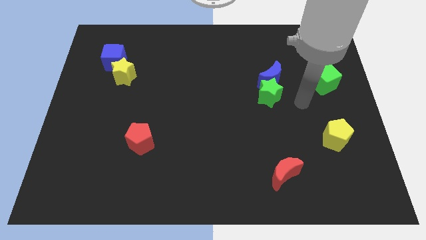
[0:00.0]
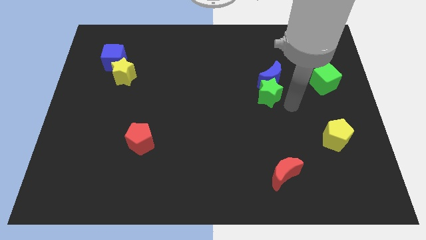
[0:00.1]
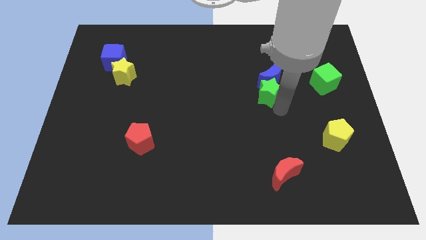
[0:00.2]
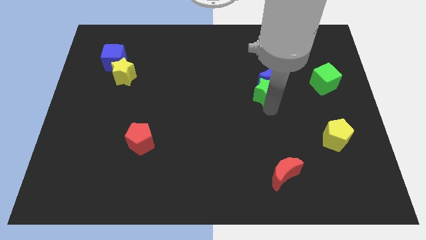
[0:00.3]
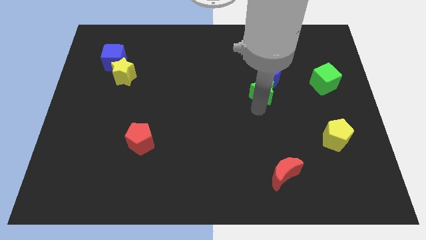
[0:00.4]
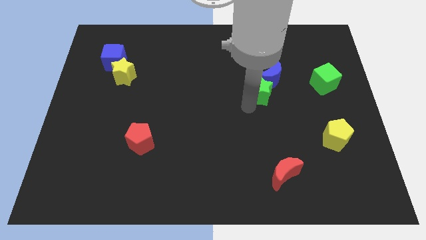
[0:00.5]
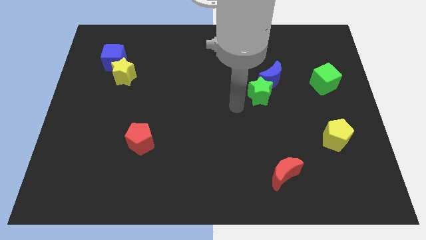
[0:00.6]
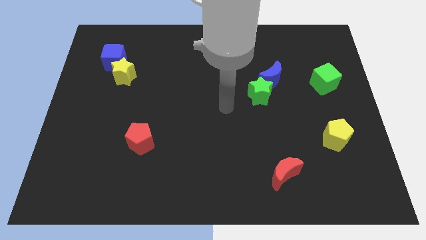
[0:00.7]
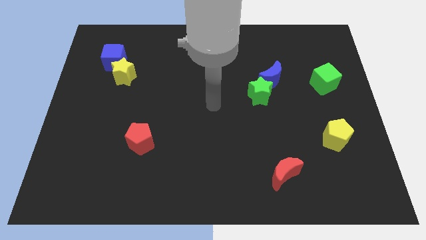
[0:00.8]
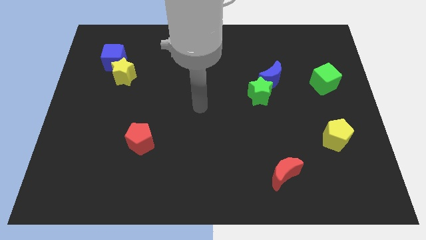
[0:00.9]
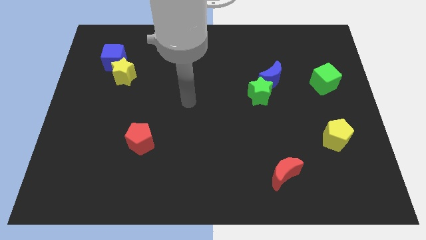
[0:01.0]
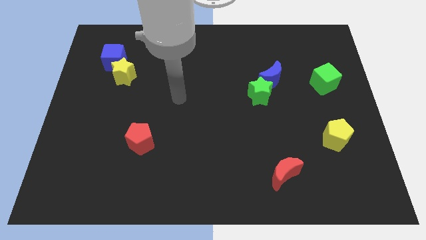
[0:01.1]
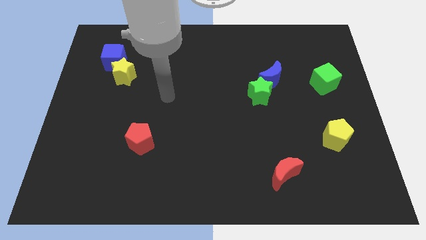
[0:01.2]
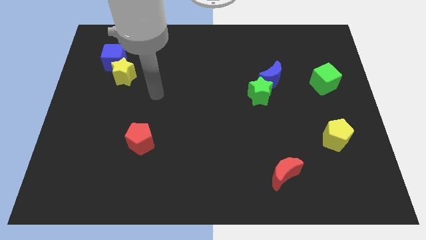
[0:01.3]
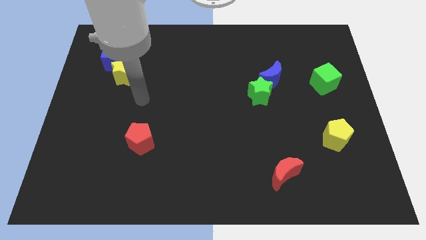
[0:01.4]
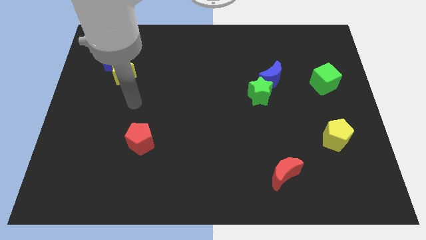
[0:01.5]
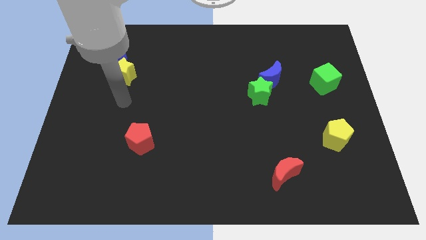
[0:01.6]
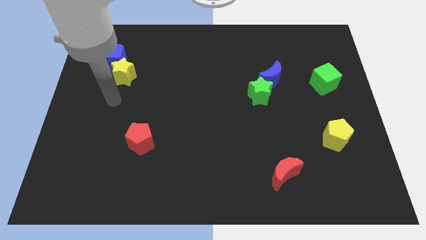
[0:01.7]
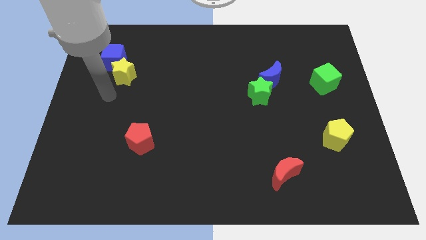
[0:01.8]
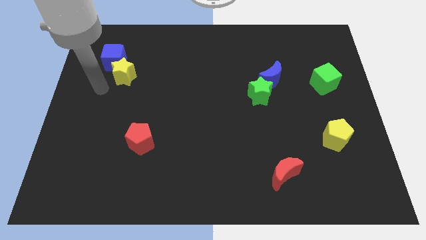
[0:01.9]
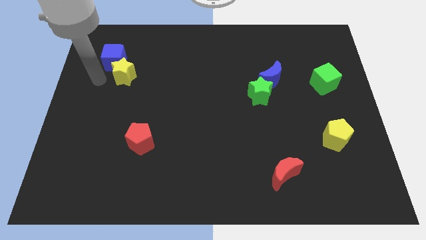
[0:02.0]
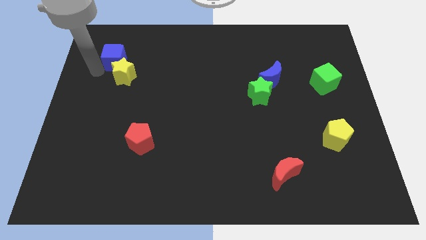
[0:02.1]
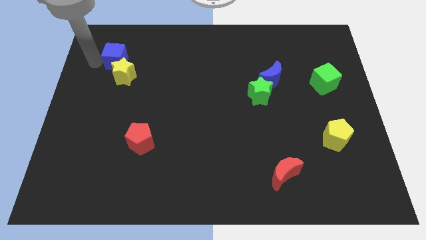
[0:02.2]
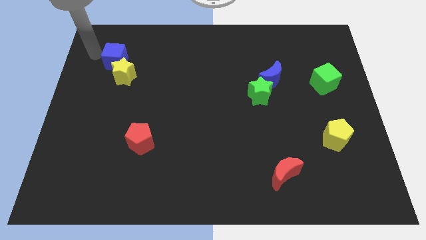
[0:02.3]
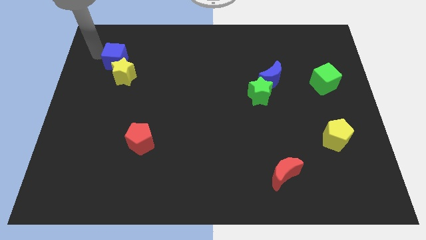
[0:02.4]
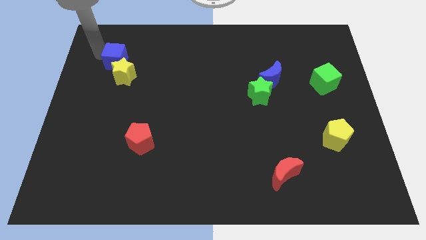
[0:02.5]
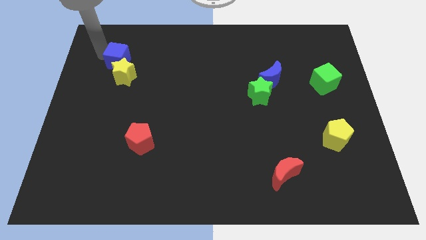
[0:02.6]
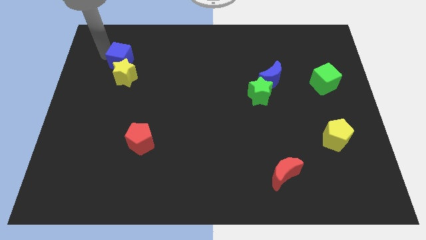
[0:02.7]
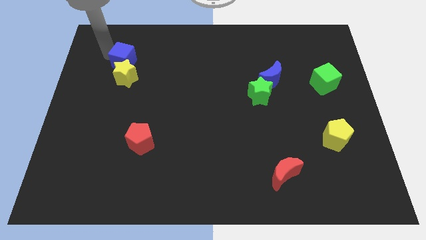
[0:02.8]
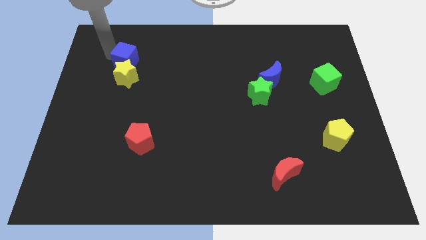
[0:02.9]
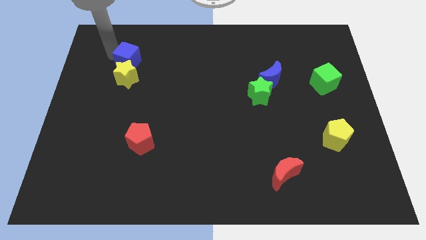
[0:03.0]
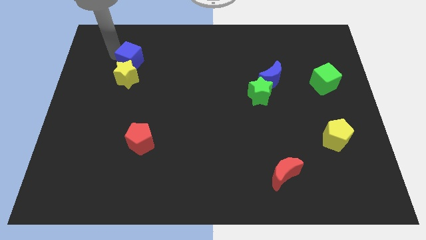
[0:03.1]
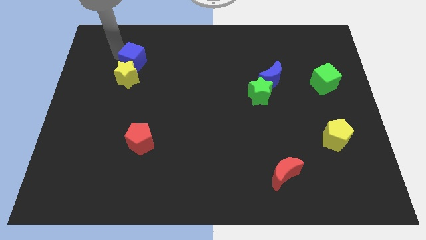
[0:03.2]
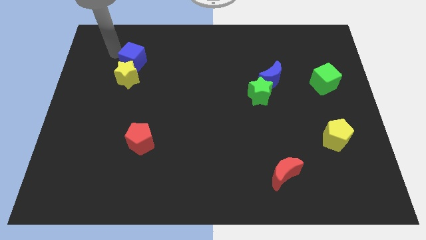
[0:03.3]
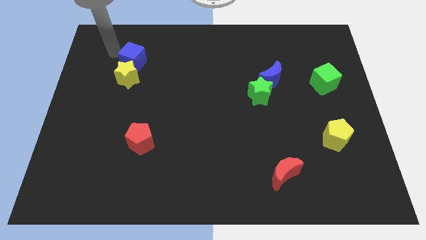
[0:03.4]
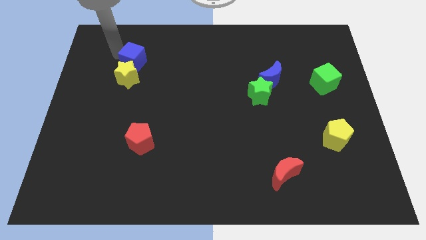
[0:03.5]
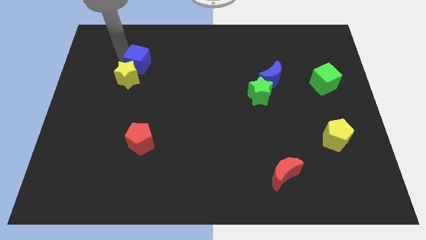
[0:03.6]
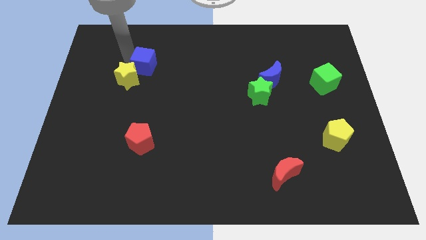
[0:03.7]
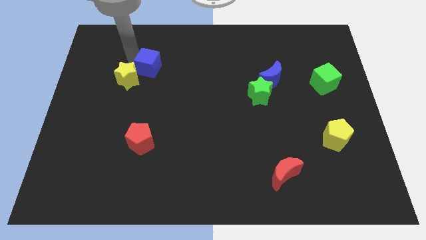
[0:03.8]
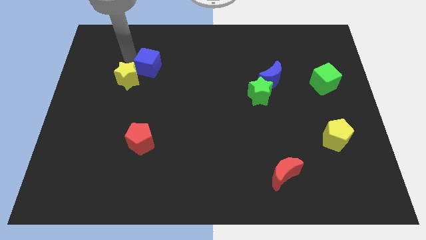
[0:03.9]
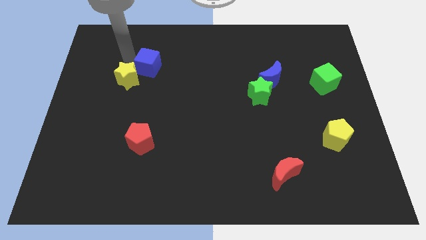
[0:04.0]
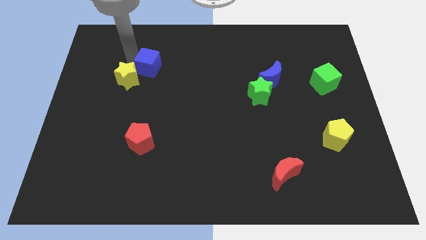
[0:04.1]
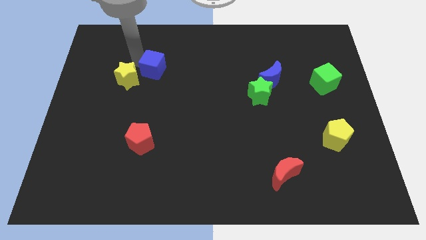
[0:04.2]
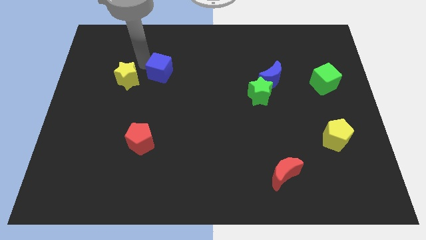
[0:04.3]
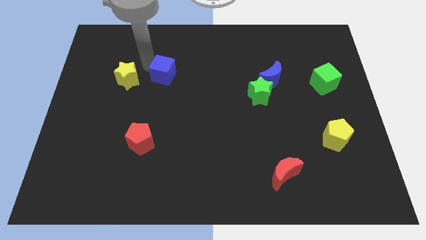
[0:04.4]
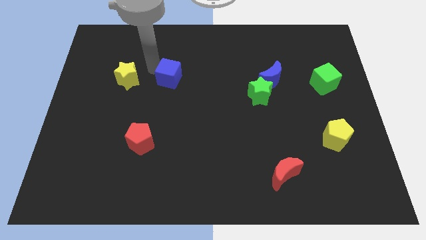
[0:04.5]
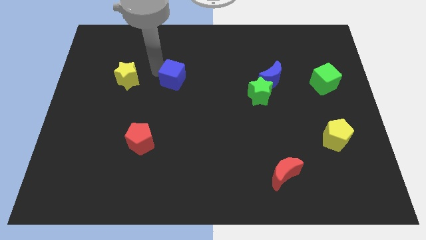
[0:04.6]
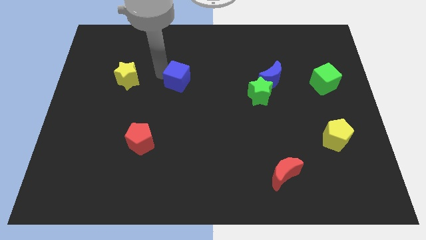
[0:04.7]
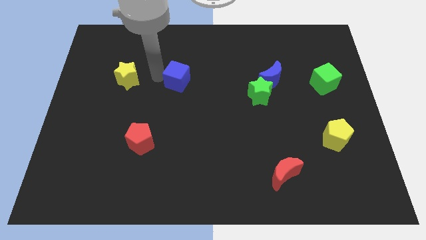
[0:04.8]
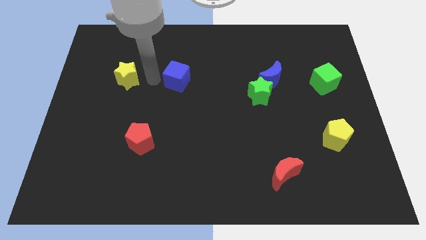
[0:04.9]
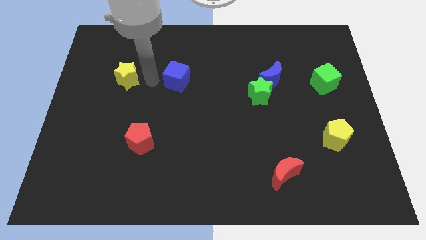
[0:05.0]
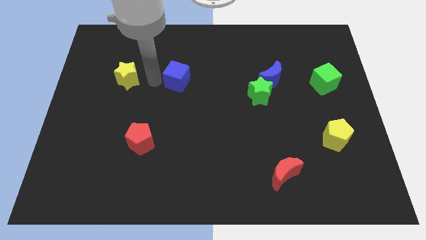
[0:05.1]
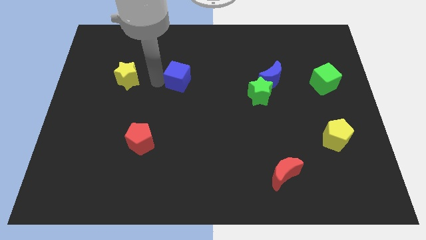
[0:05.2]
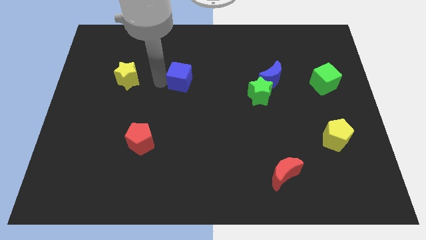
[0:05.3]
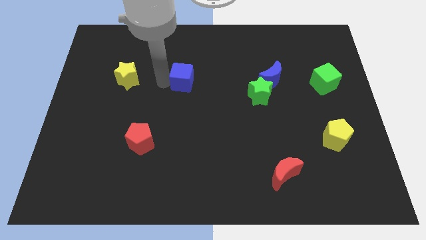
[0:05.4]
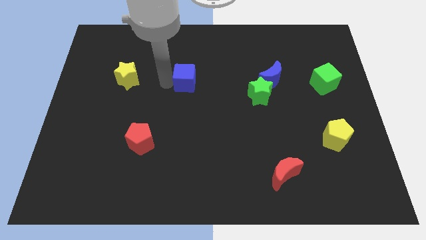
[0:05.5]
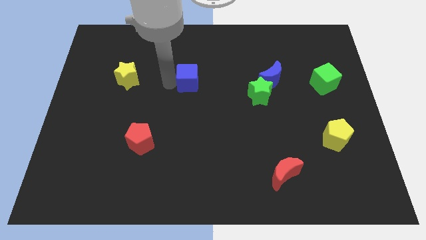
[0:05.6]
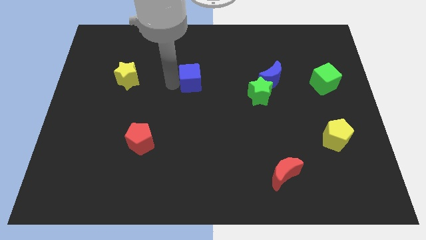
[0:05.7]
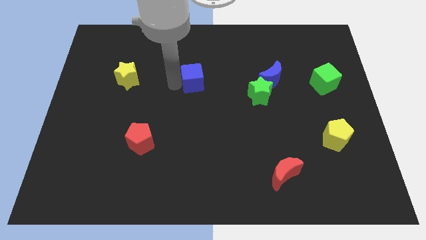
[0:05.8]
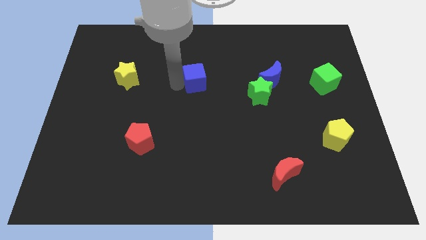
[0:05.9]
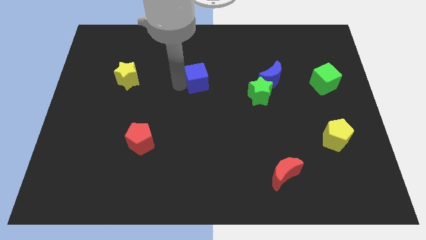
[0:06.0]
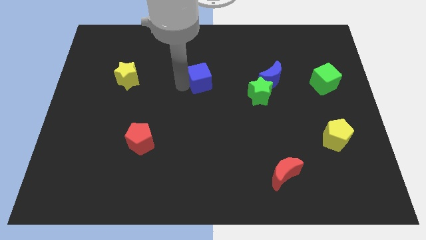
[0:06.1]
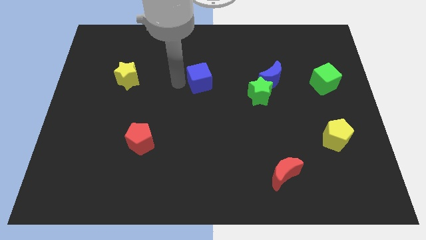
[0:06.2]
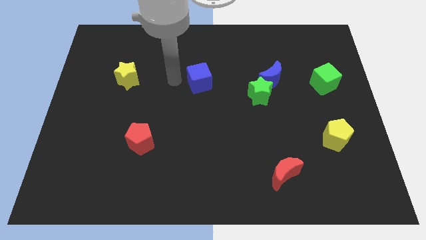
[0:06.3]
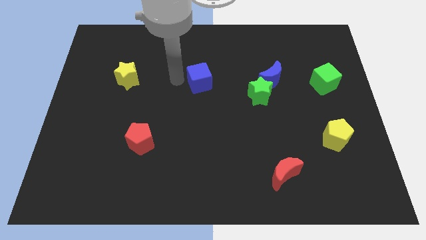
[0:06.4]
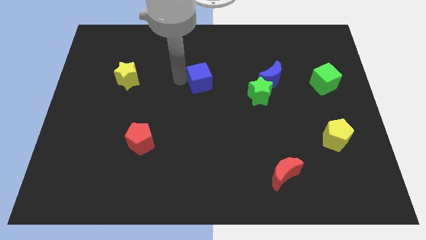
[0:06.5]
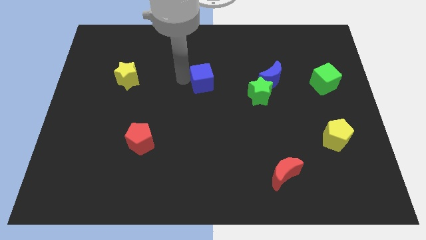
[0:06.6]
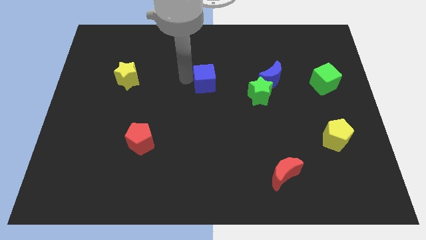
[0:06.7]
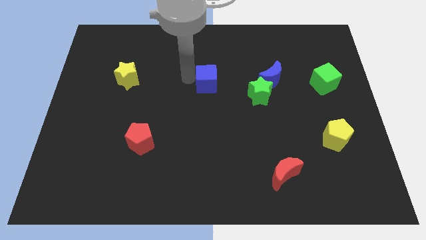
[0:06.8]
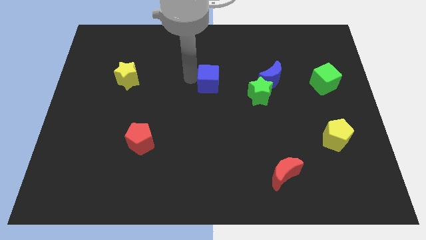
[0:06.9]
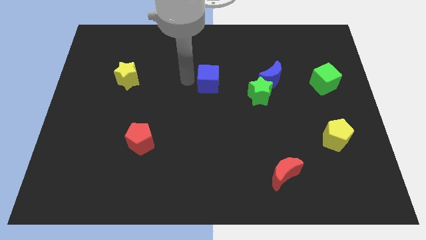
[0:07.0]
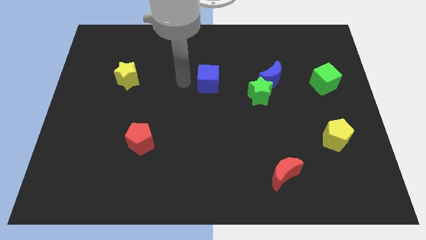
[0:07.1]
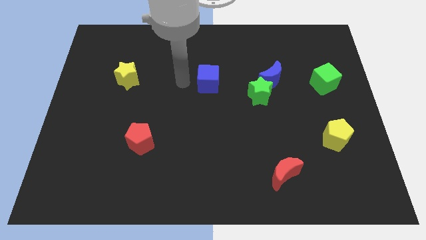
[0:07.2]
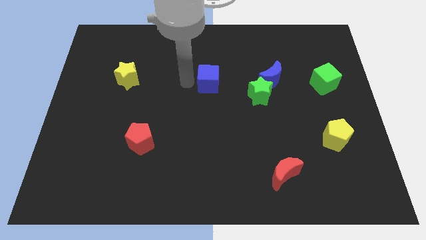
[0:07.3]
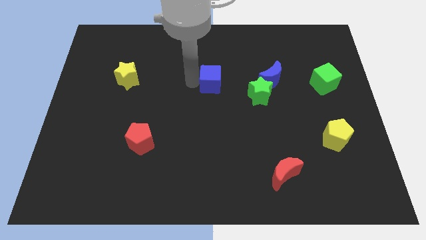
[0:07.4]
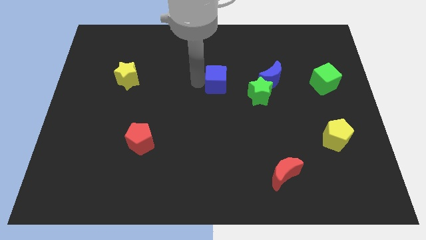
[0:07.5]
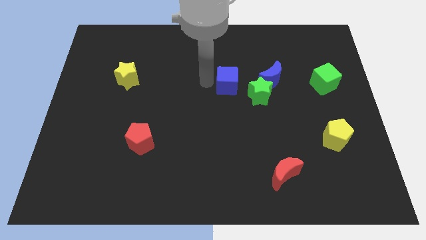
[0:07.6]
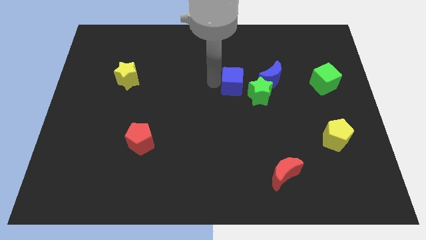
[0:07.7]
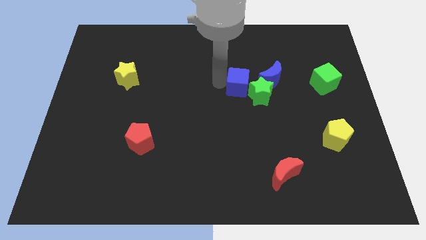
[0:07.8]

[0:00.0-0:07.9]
slide the blue cube next to the green star
